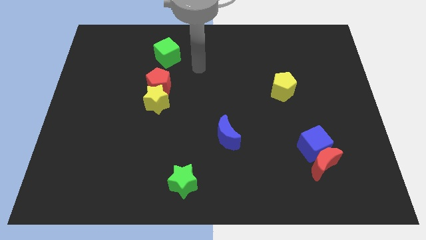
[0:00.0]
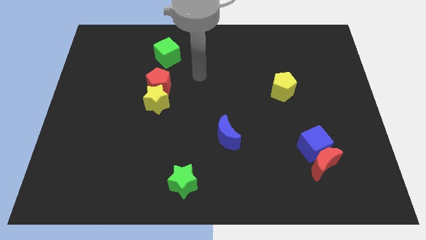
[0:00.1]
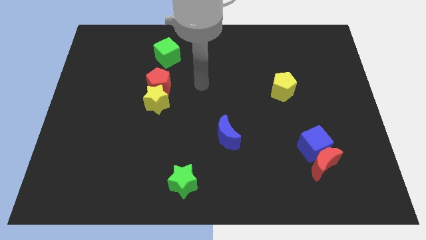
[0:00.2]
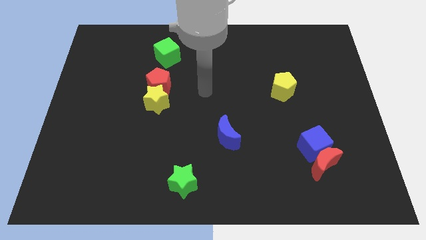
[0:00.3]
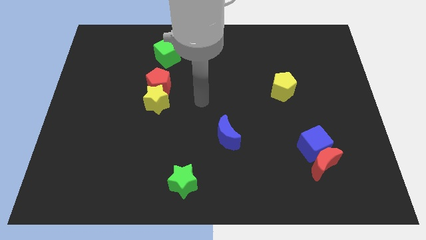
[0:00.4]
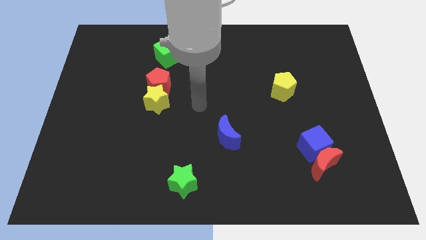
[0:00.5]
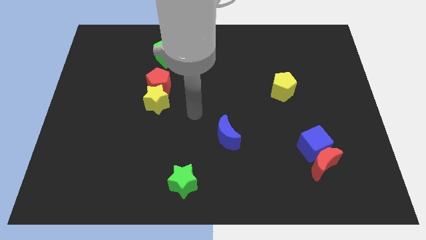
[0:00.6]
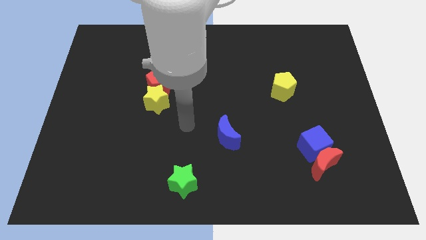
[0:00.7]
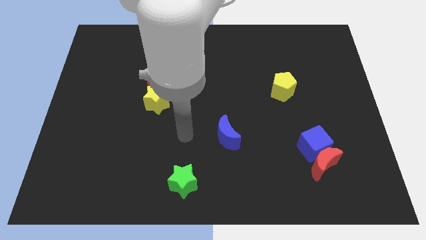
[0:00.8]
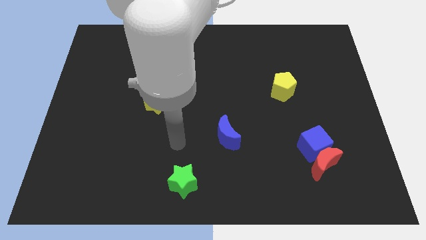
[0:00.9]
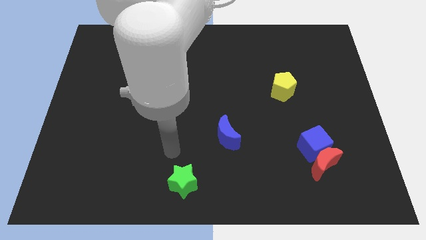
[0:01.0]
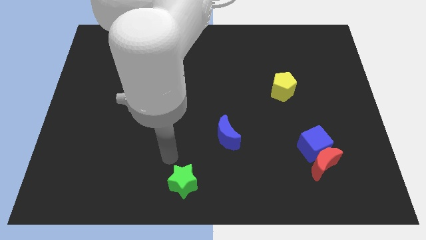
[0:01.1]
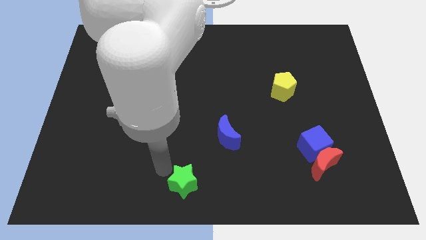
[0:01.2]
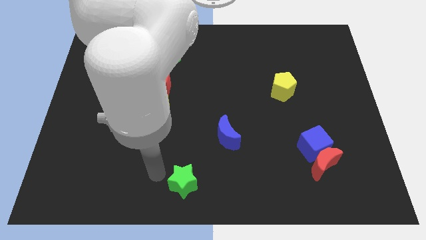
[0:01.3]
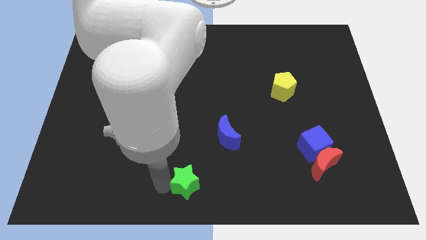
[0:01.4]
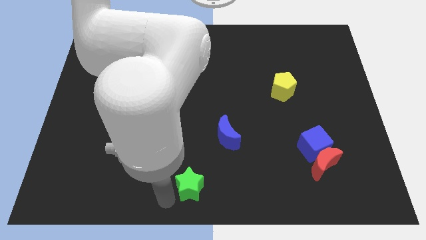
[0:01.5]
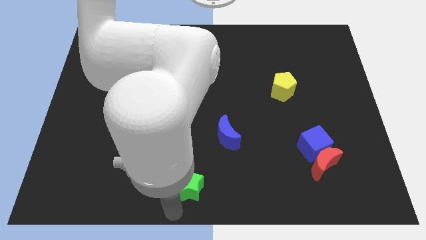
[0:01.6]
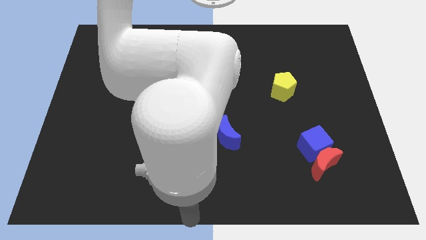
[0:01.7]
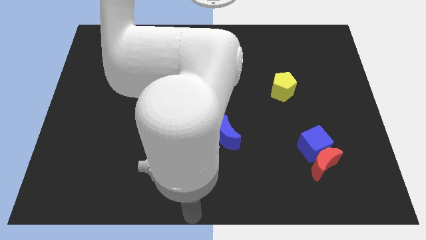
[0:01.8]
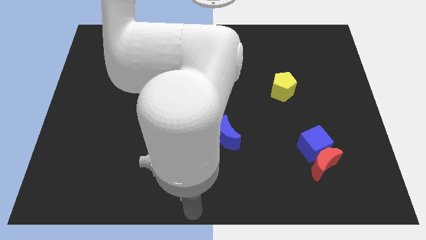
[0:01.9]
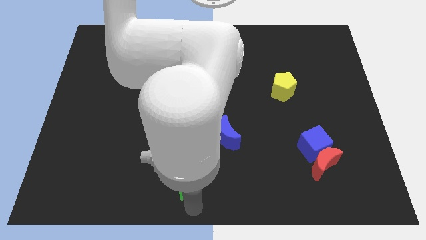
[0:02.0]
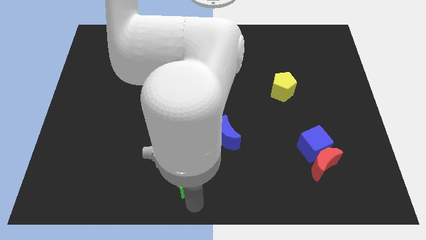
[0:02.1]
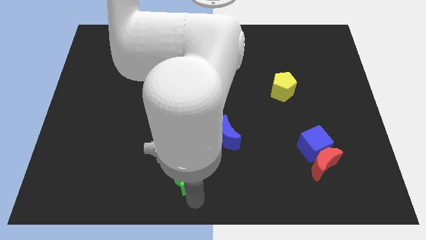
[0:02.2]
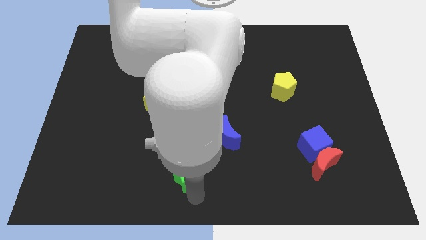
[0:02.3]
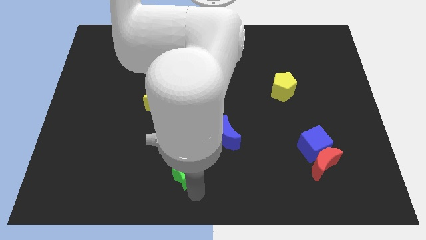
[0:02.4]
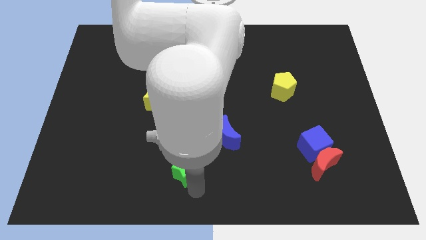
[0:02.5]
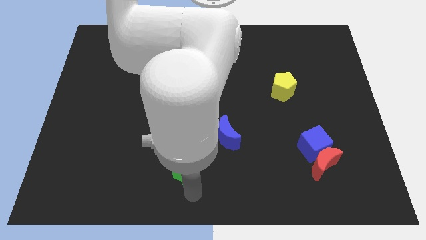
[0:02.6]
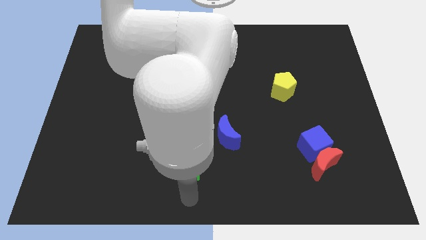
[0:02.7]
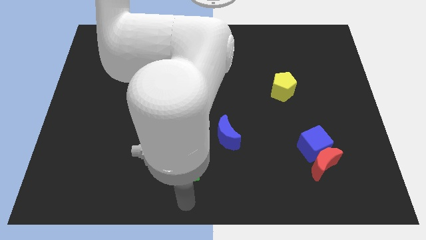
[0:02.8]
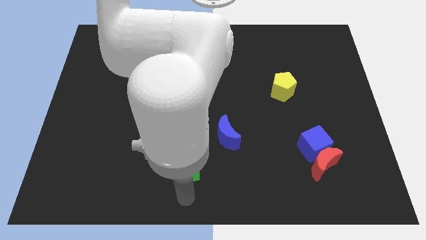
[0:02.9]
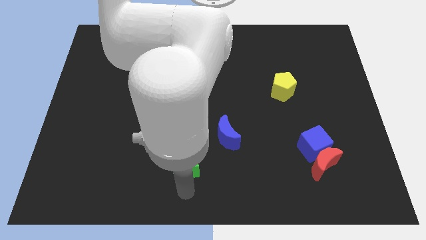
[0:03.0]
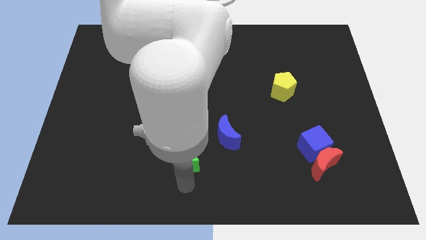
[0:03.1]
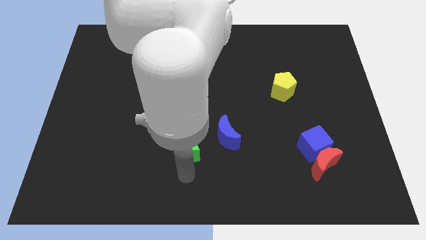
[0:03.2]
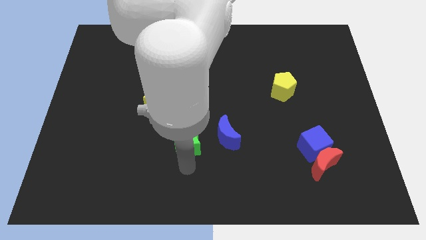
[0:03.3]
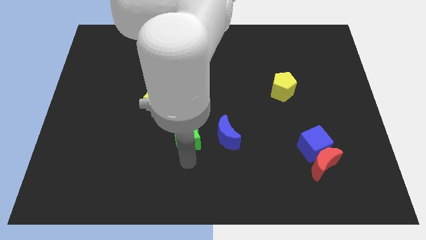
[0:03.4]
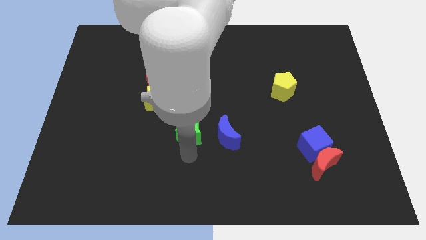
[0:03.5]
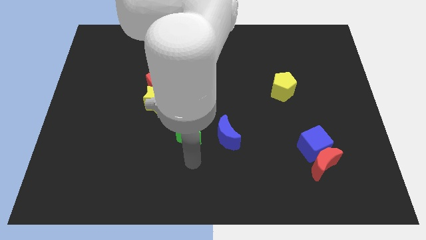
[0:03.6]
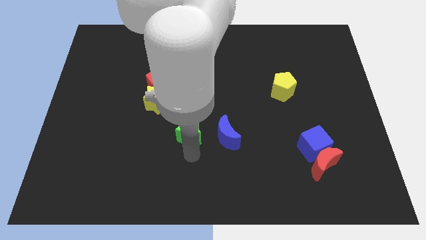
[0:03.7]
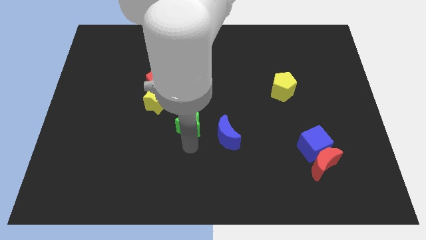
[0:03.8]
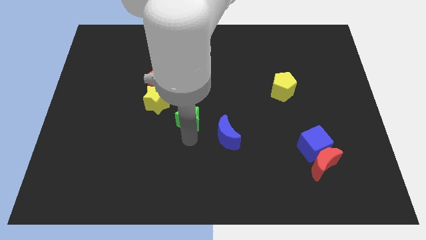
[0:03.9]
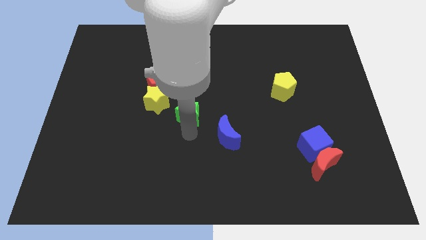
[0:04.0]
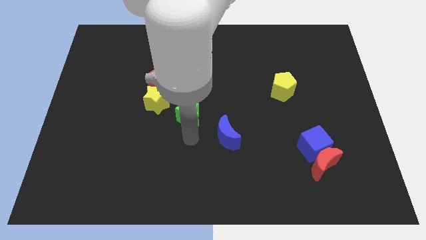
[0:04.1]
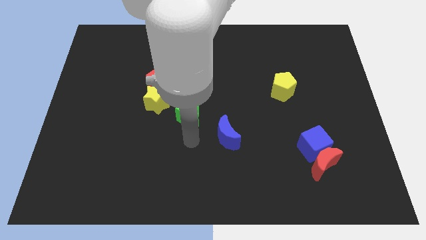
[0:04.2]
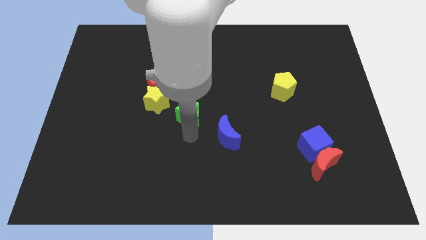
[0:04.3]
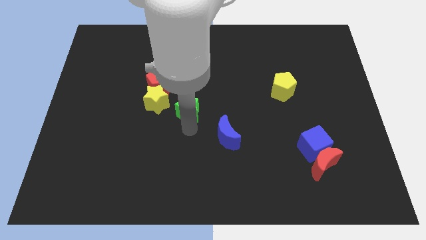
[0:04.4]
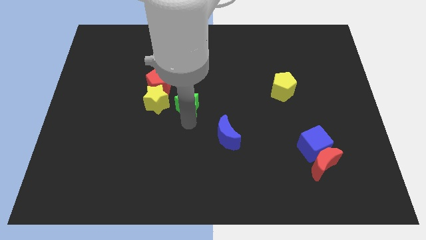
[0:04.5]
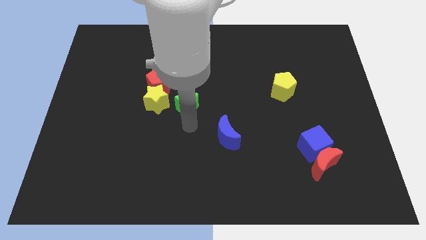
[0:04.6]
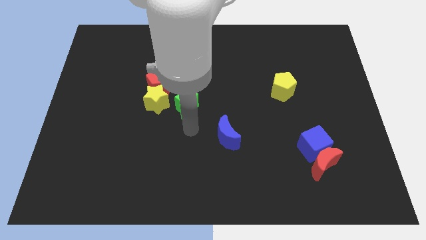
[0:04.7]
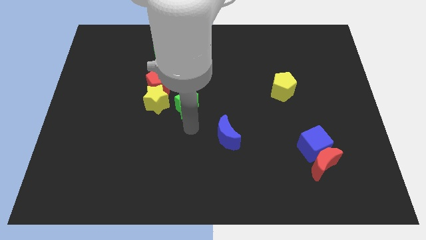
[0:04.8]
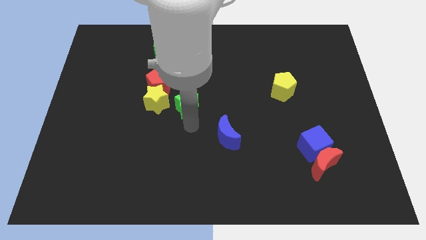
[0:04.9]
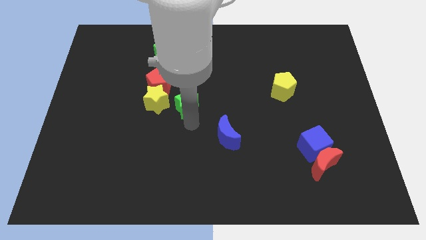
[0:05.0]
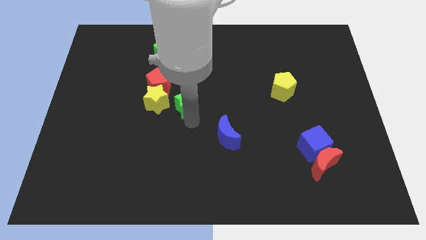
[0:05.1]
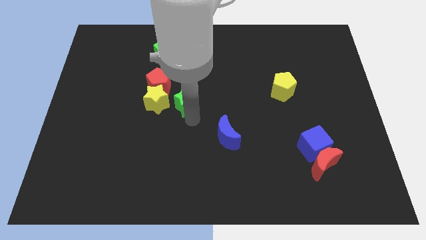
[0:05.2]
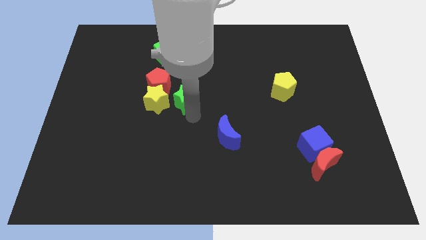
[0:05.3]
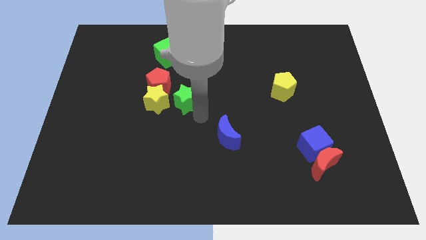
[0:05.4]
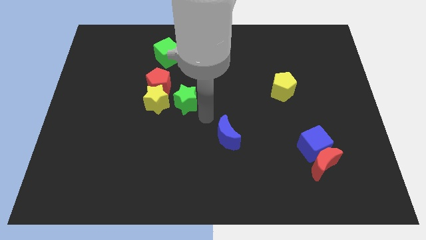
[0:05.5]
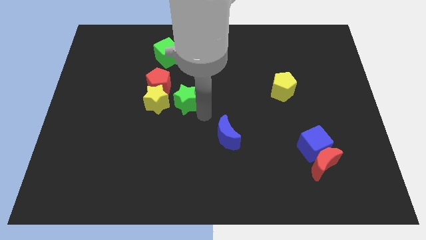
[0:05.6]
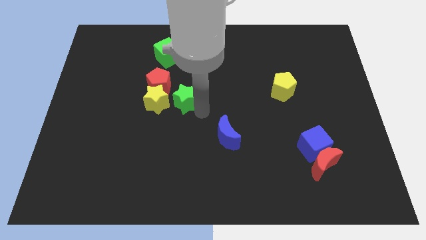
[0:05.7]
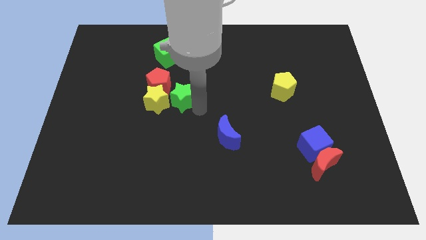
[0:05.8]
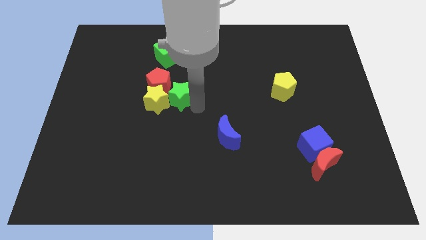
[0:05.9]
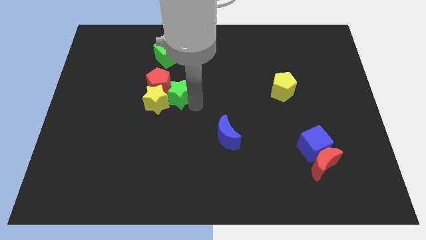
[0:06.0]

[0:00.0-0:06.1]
put the green star close to the red pentagon

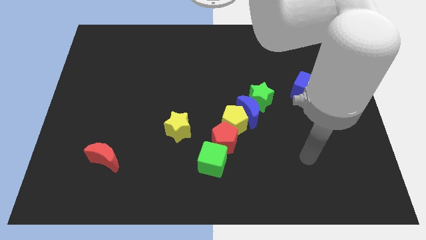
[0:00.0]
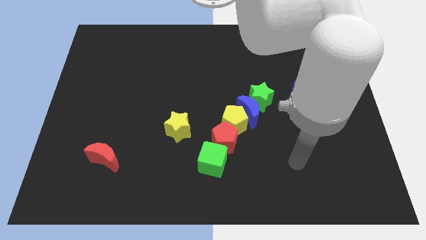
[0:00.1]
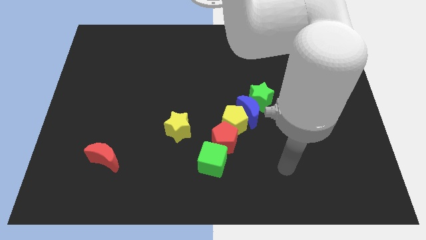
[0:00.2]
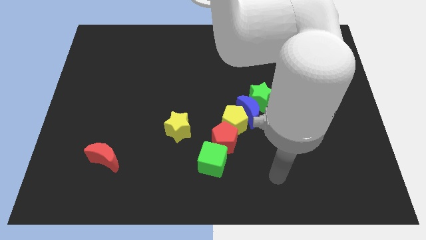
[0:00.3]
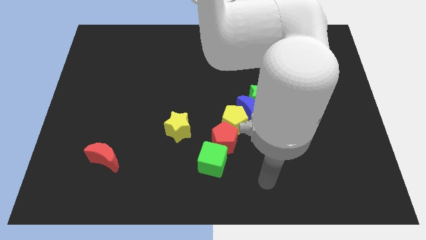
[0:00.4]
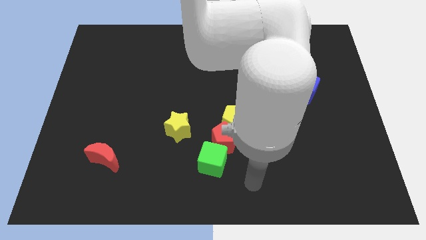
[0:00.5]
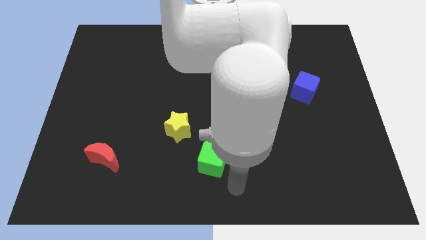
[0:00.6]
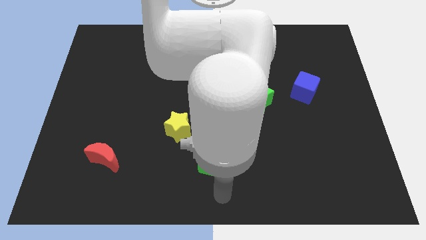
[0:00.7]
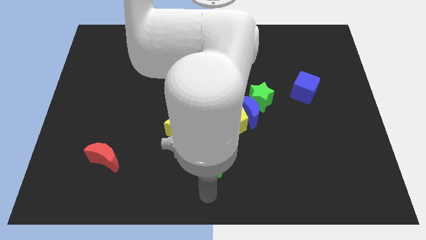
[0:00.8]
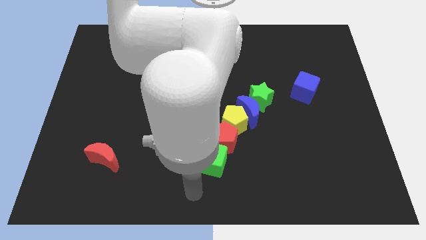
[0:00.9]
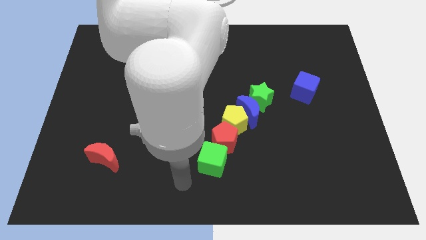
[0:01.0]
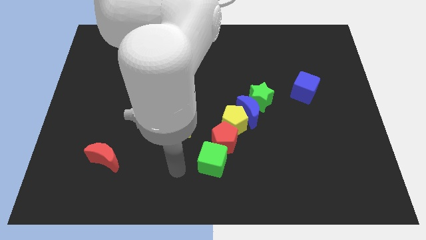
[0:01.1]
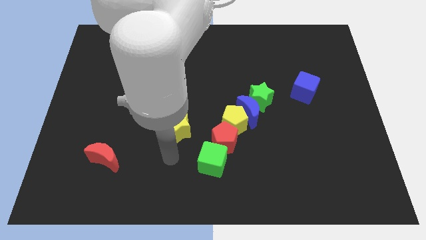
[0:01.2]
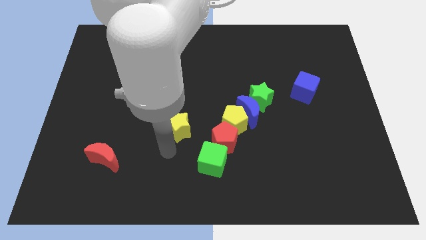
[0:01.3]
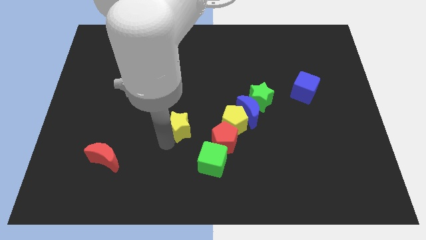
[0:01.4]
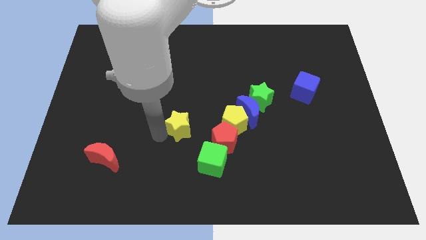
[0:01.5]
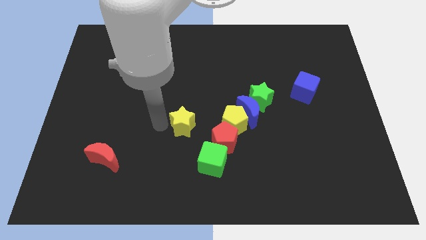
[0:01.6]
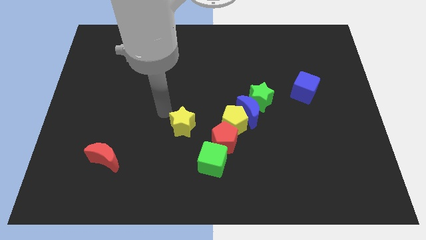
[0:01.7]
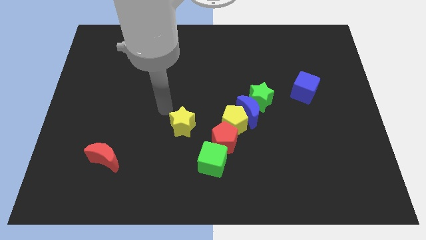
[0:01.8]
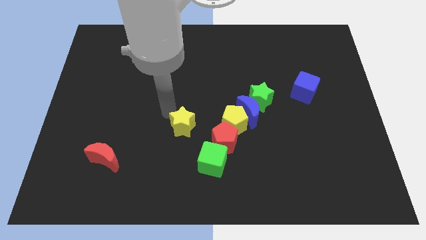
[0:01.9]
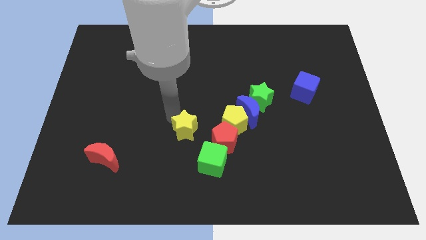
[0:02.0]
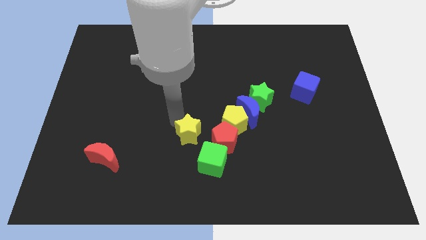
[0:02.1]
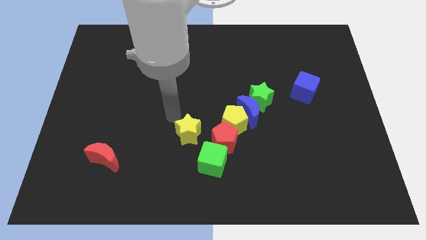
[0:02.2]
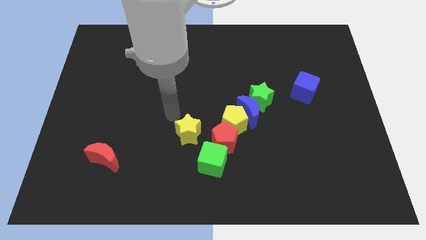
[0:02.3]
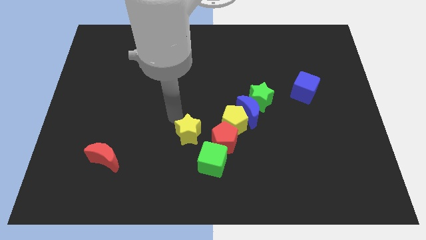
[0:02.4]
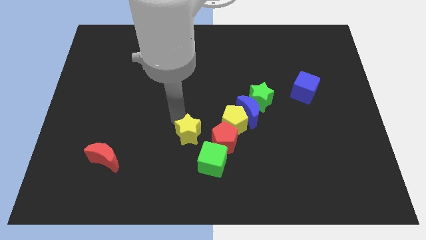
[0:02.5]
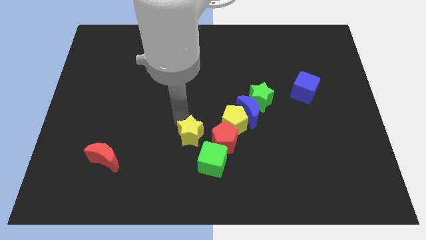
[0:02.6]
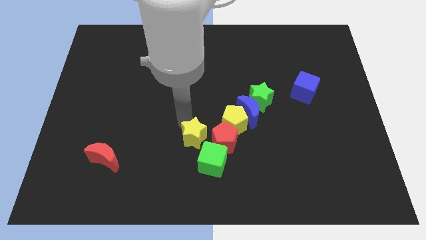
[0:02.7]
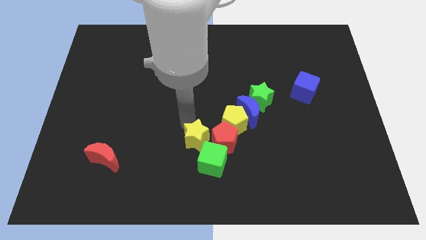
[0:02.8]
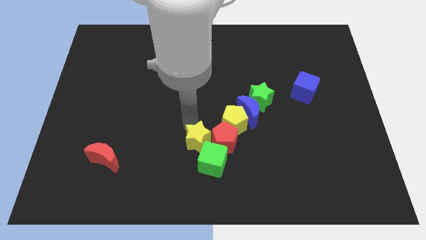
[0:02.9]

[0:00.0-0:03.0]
slide the yellow star close to the green cube
